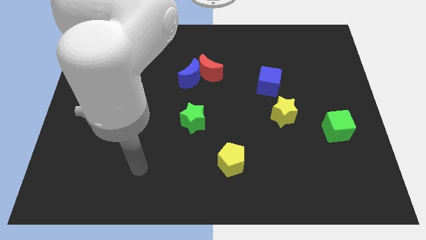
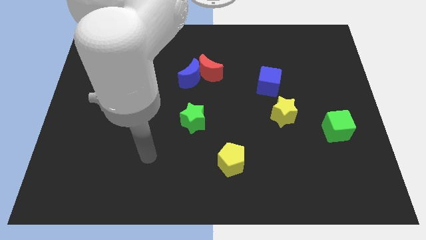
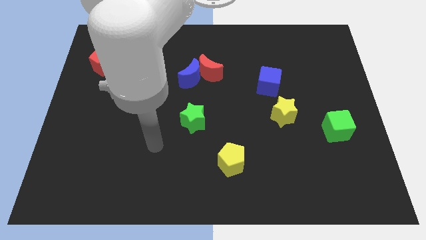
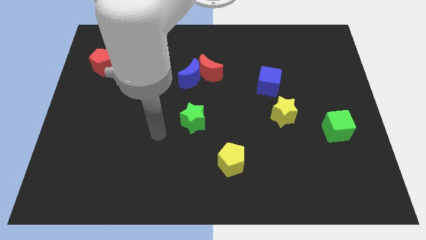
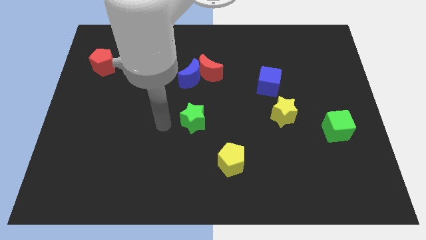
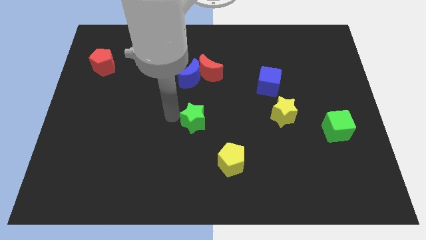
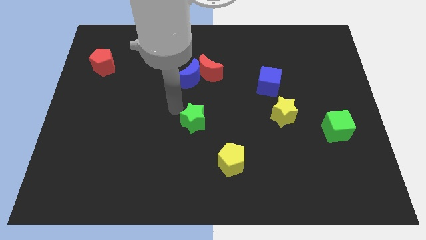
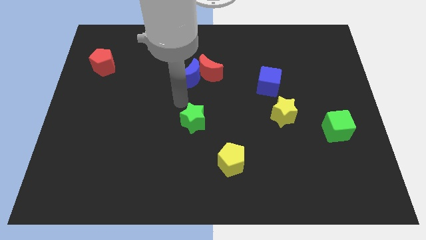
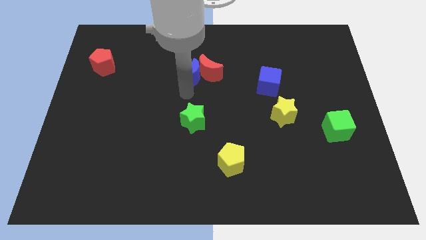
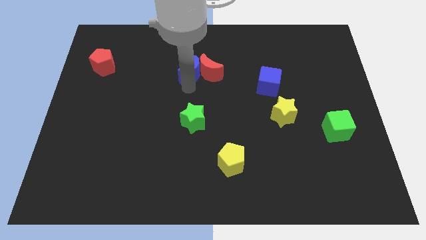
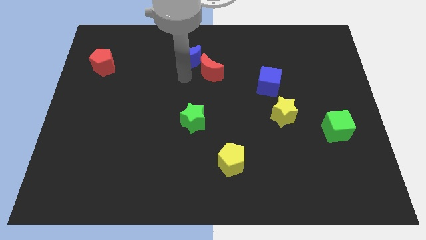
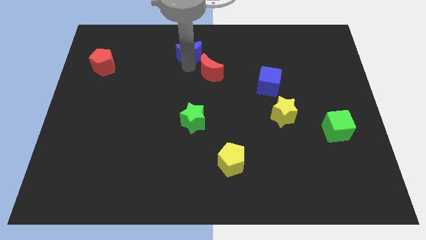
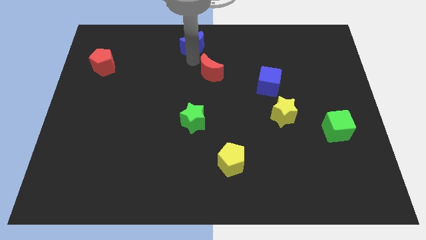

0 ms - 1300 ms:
separate the red moon from the blue moon

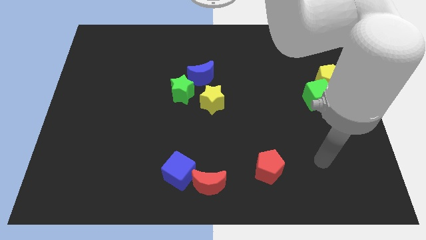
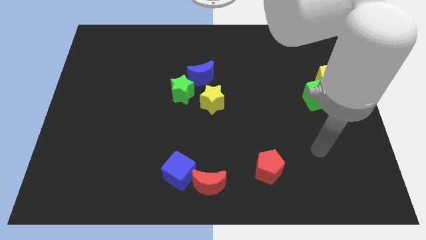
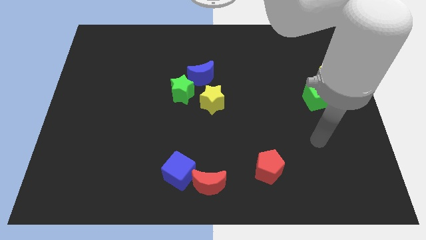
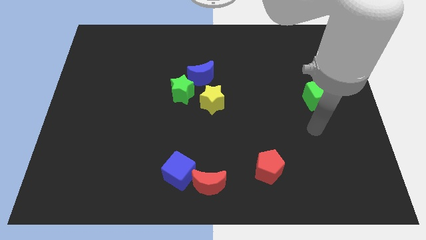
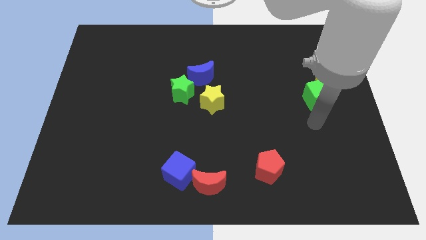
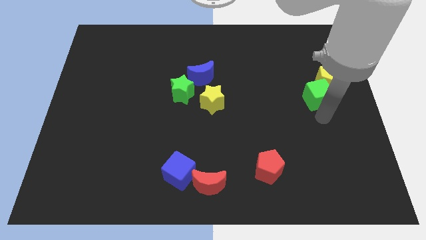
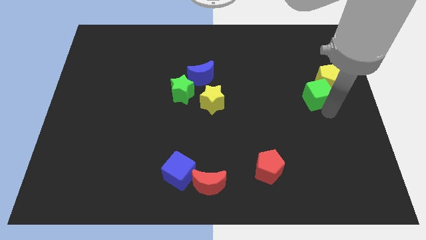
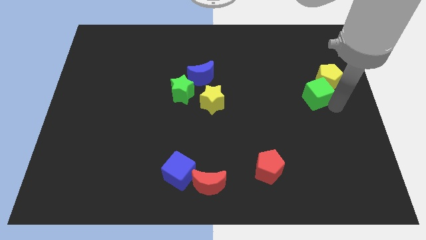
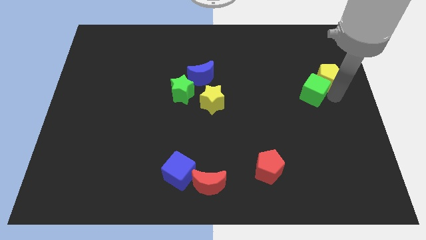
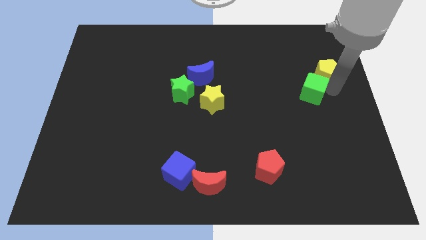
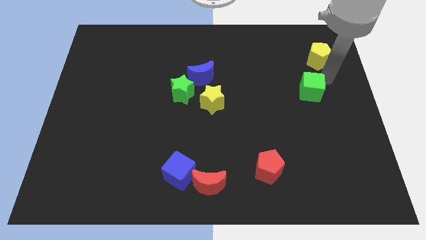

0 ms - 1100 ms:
pull the green cube apart from the yellow pentagon

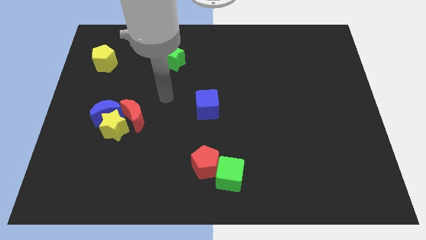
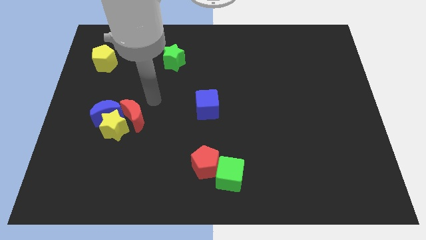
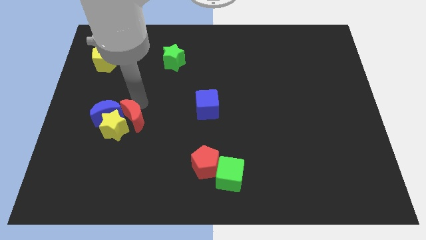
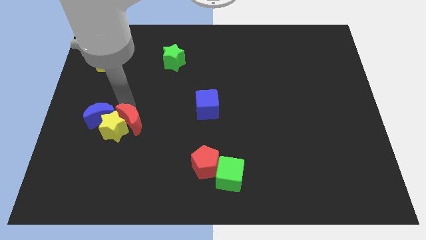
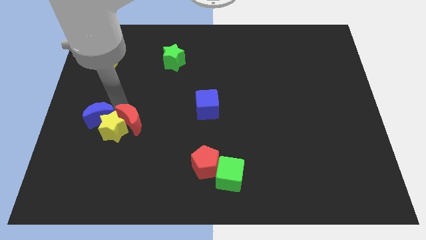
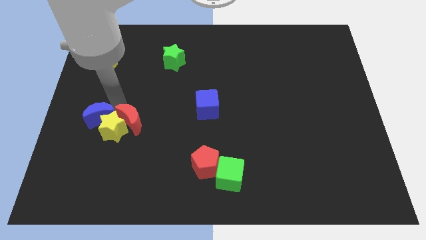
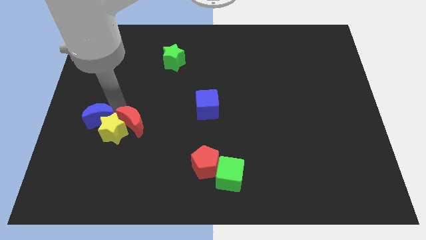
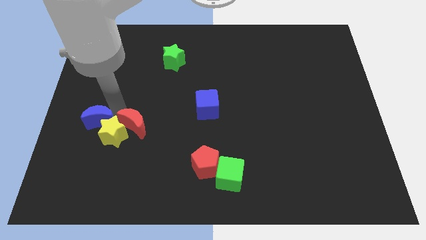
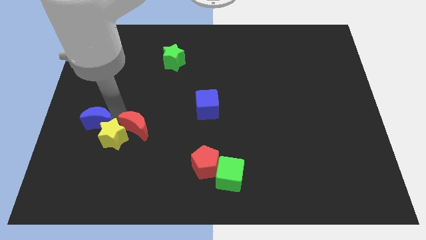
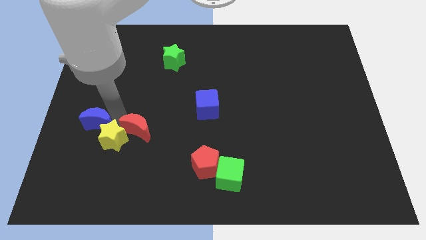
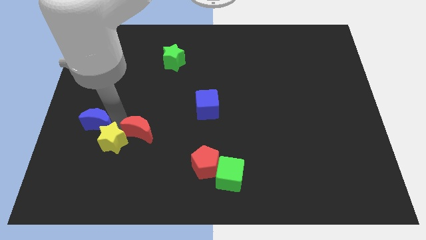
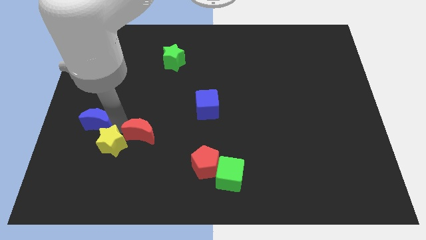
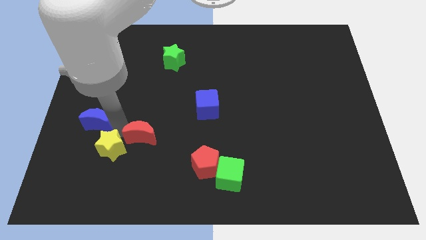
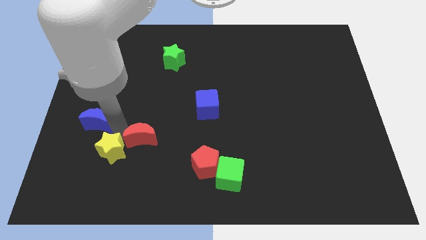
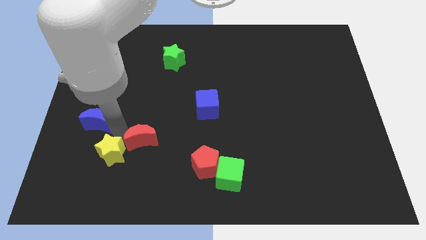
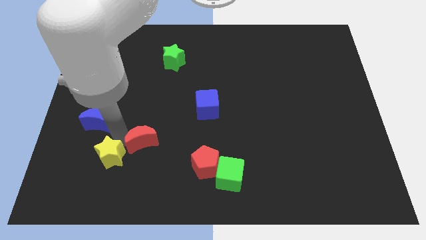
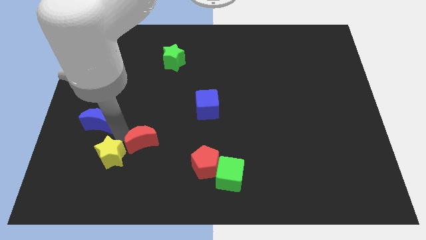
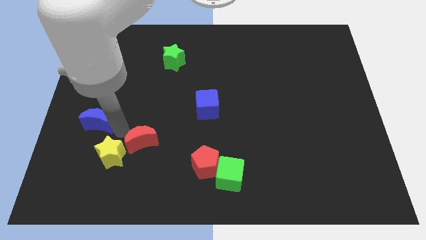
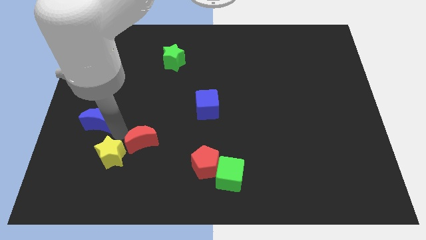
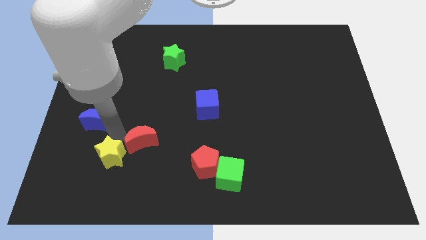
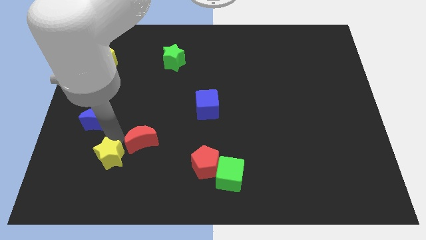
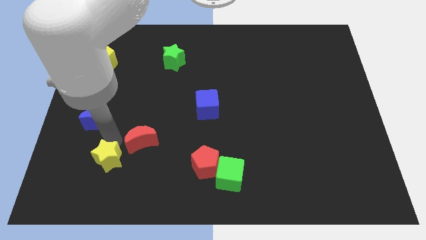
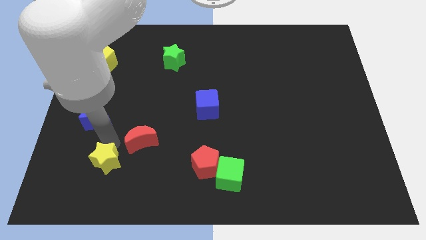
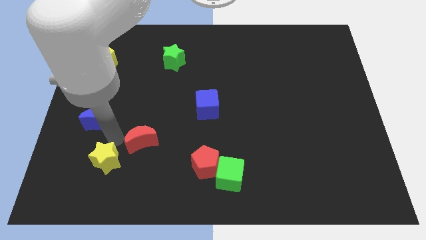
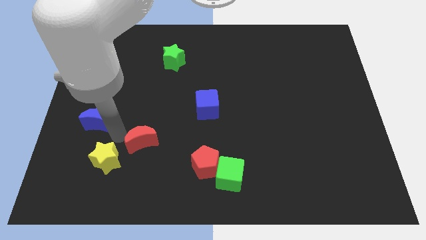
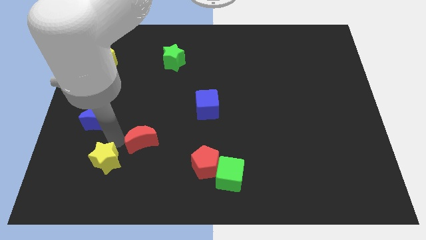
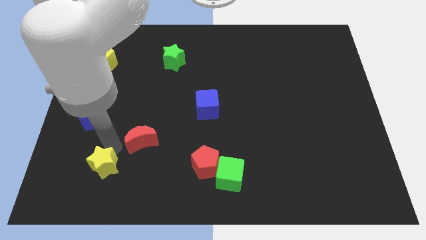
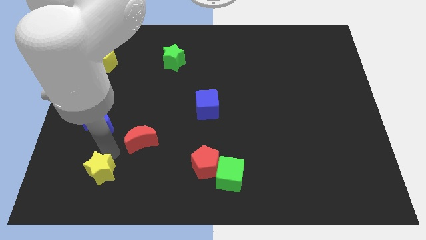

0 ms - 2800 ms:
separate the yellow star from the blue moon and red moon

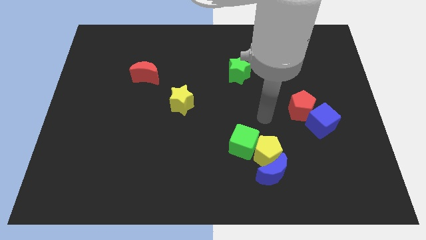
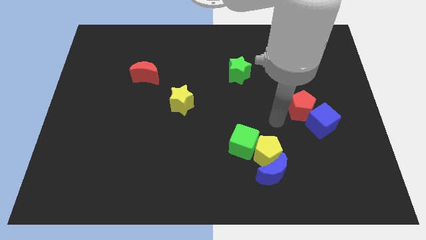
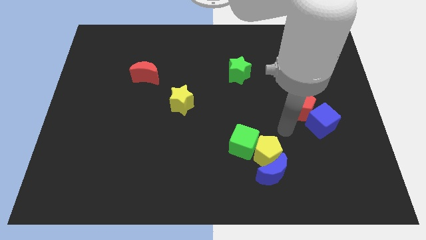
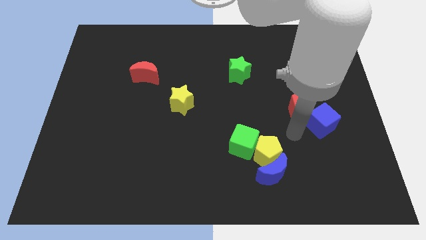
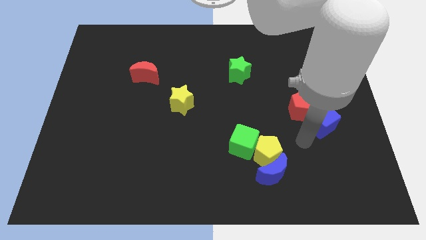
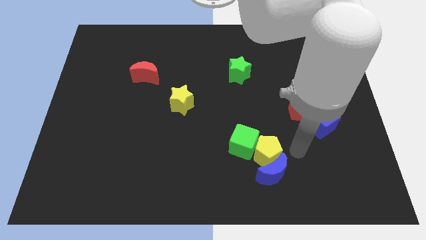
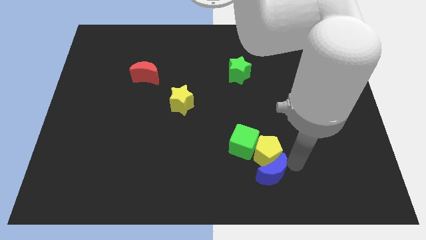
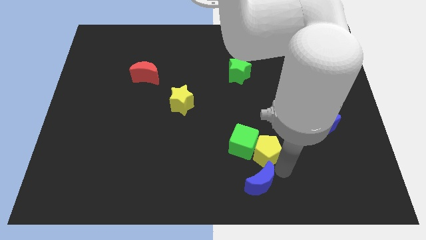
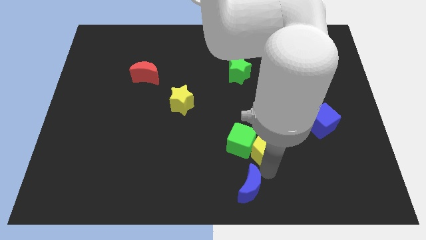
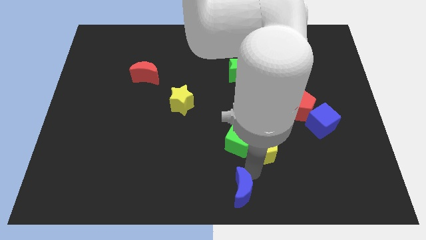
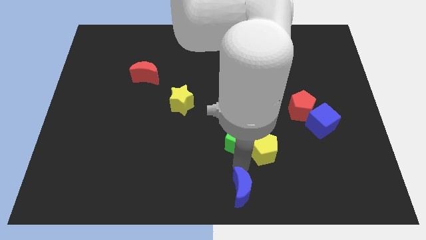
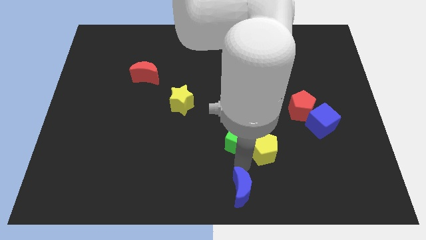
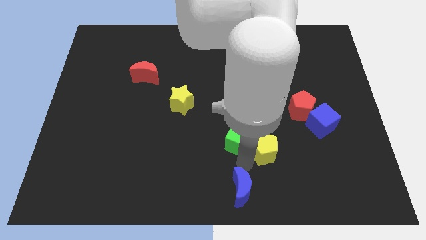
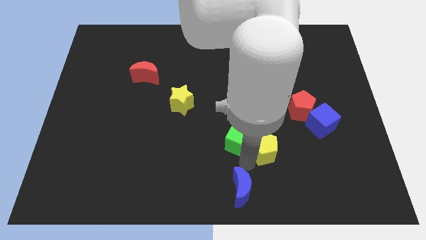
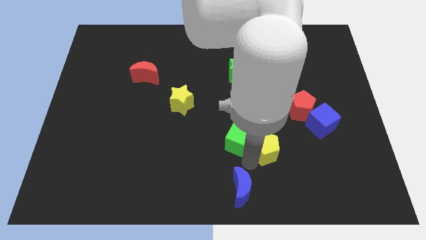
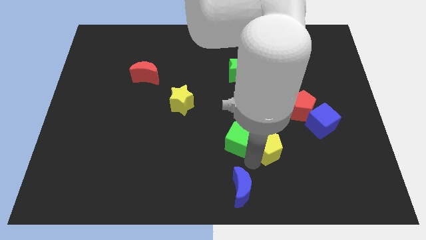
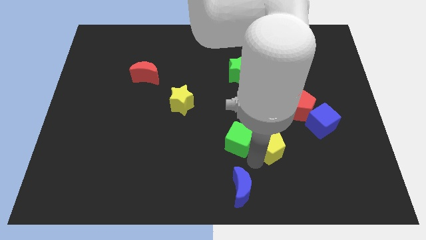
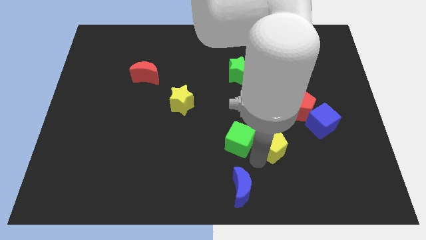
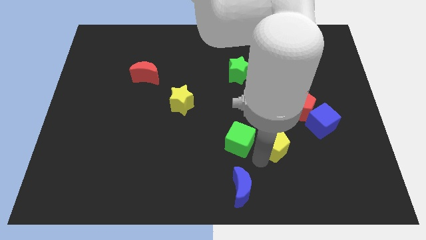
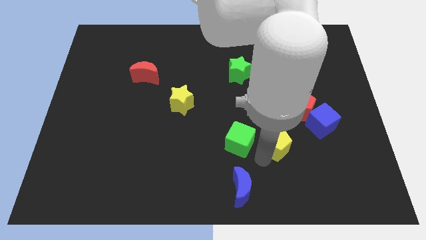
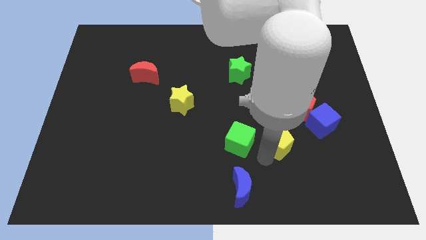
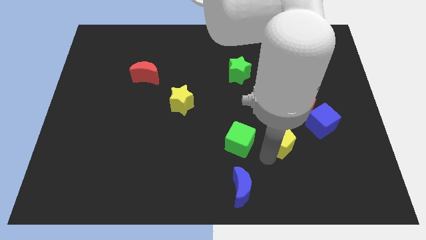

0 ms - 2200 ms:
move the yellow pentagon away from the blue moon and green cube

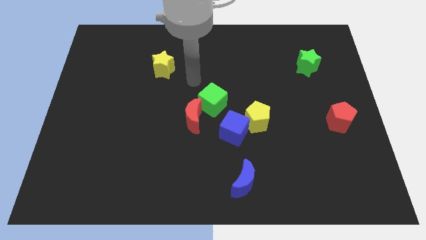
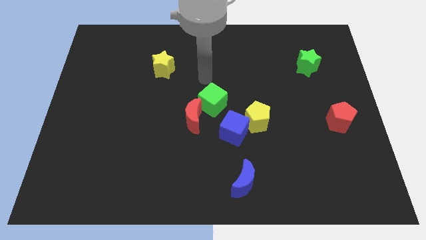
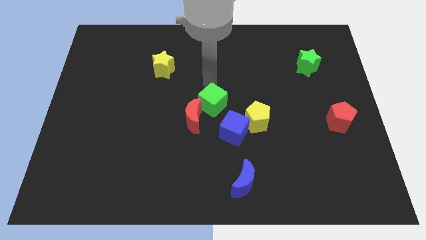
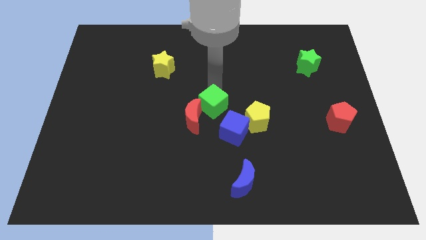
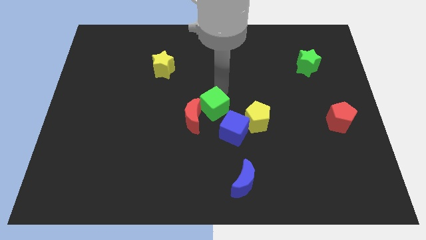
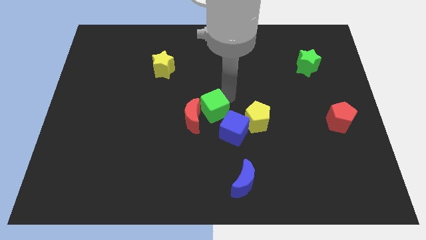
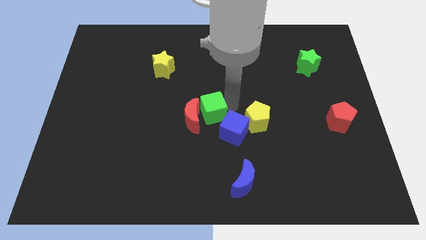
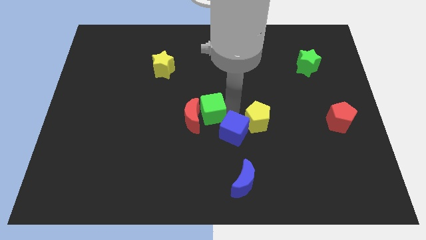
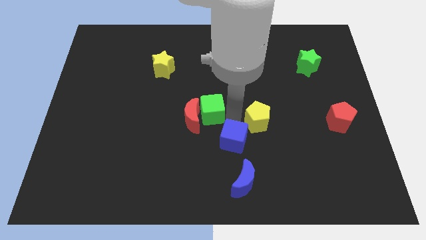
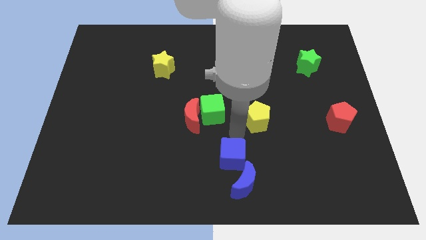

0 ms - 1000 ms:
pull the yellow pentagon apart from the blue cube

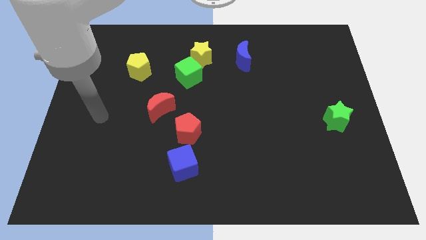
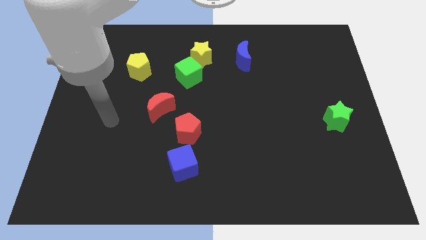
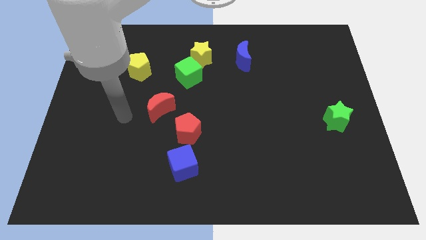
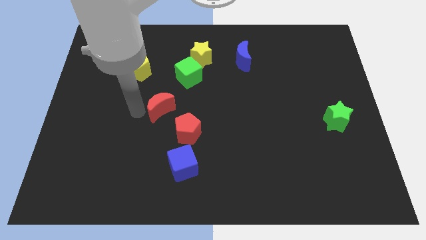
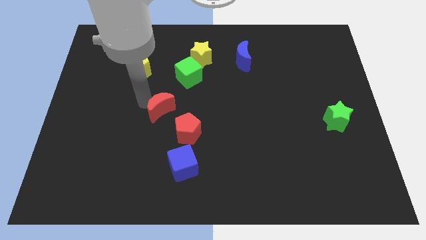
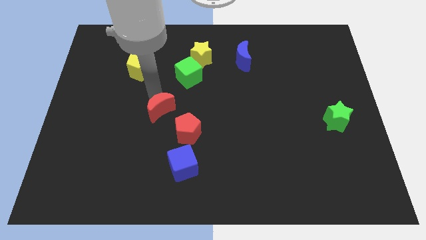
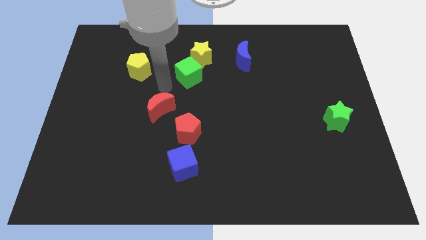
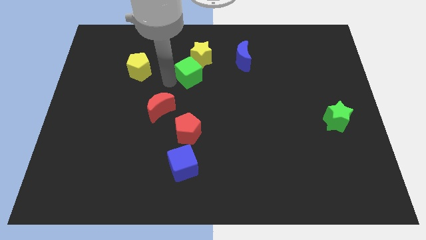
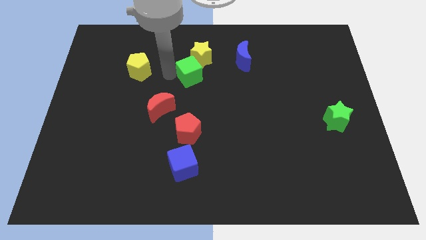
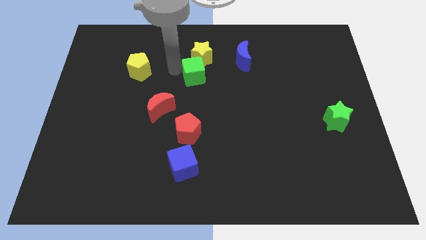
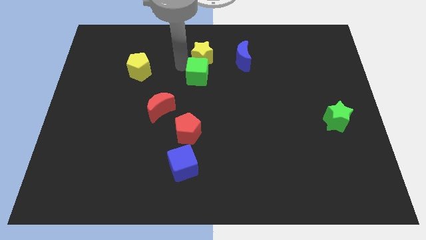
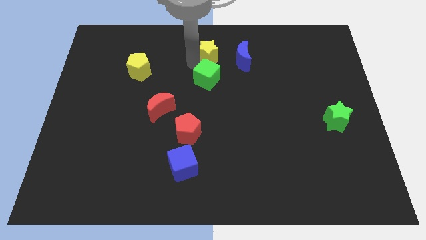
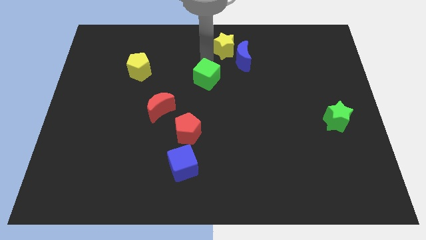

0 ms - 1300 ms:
pull the green cube apart from the yellow star
